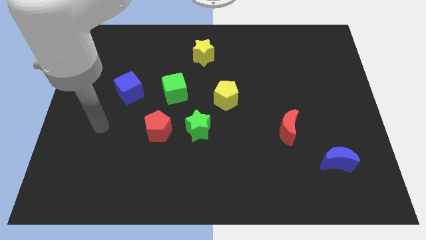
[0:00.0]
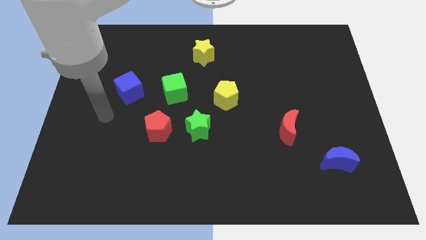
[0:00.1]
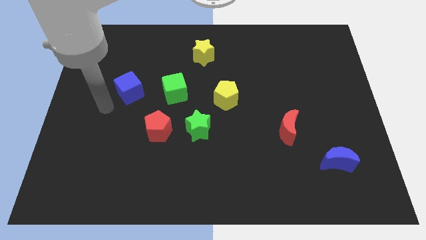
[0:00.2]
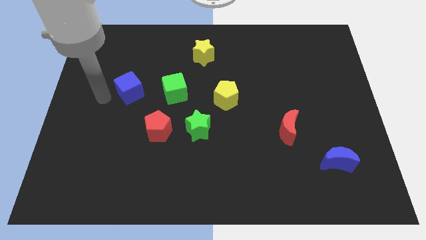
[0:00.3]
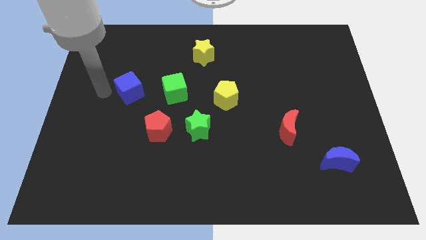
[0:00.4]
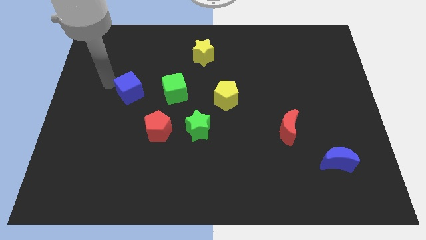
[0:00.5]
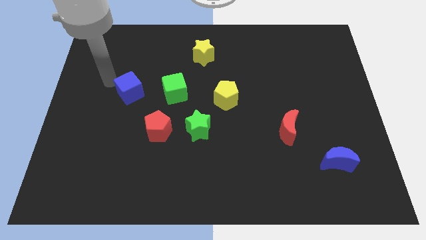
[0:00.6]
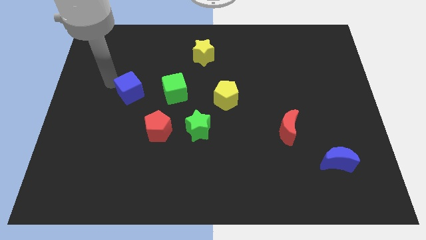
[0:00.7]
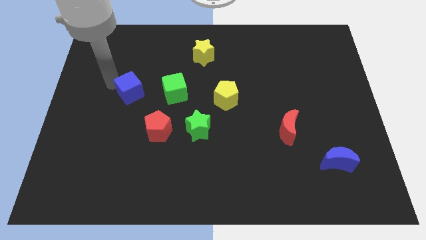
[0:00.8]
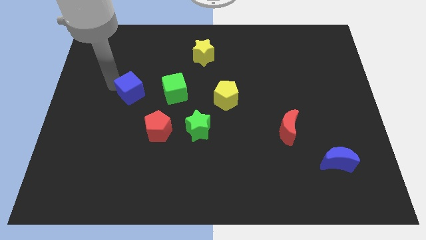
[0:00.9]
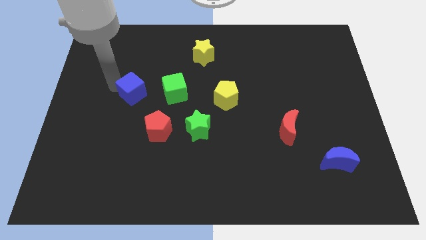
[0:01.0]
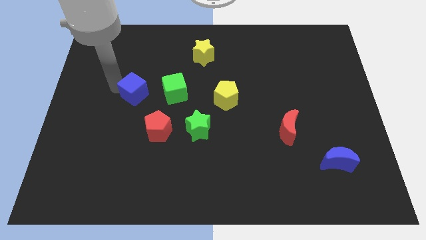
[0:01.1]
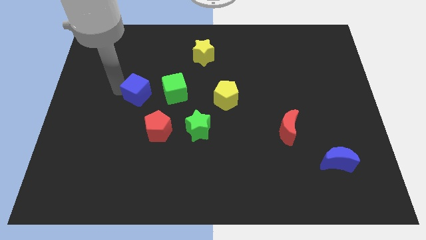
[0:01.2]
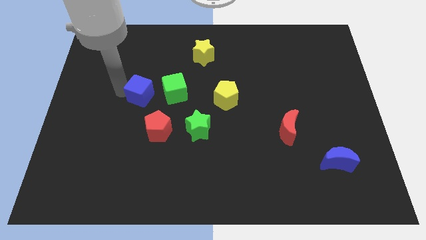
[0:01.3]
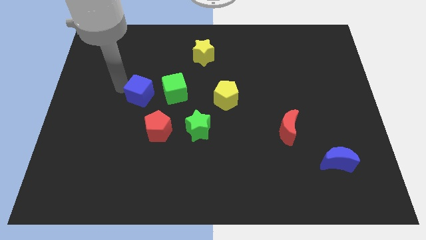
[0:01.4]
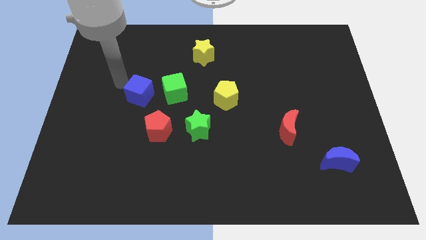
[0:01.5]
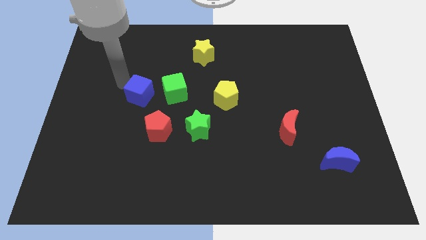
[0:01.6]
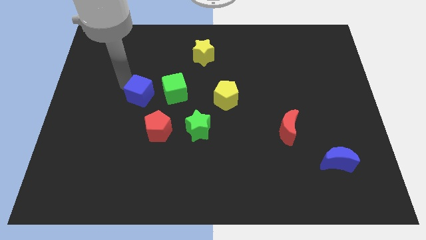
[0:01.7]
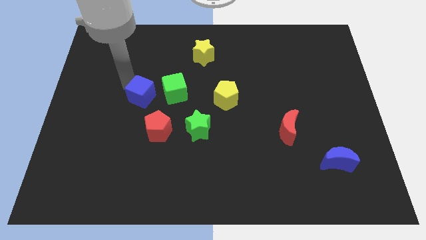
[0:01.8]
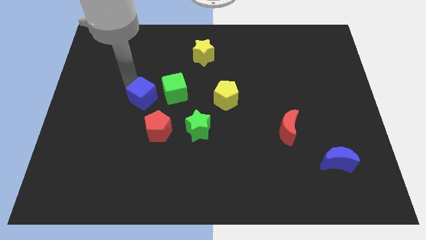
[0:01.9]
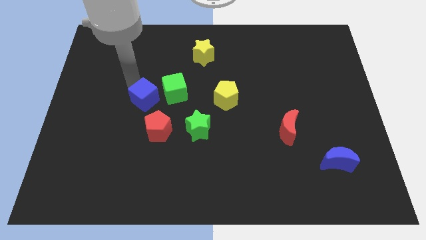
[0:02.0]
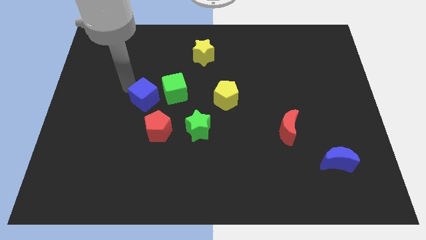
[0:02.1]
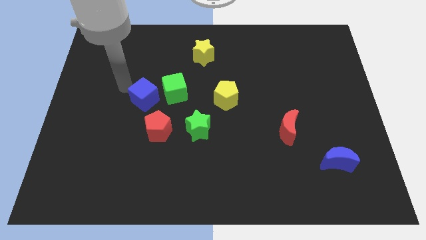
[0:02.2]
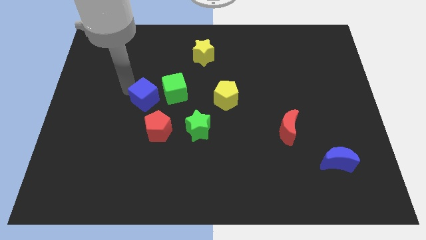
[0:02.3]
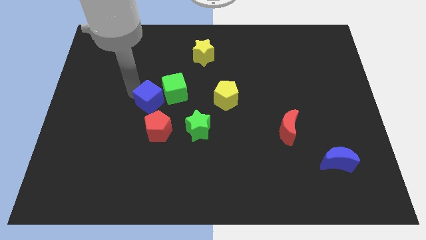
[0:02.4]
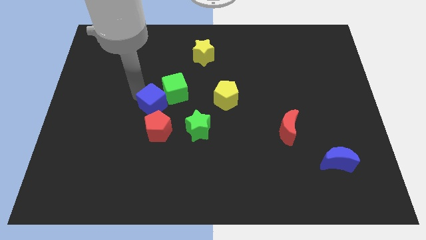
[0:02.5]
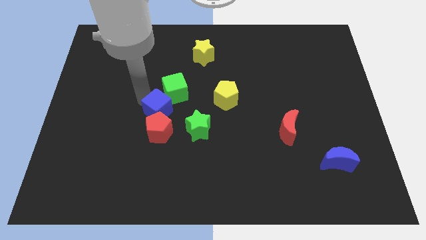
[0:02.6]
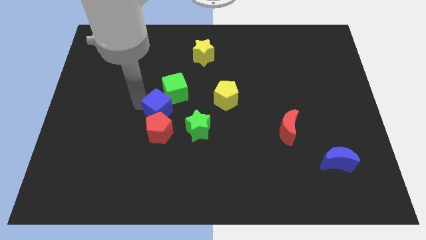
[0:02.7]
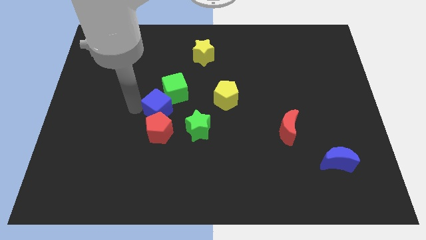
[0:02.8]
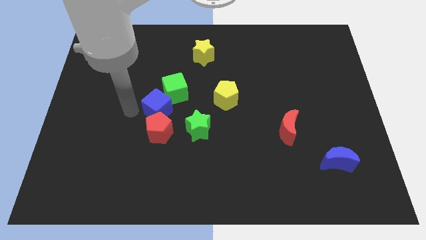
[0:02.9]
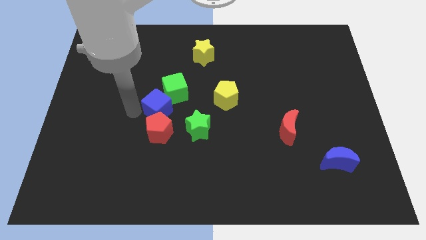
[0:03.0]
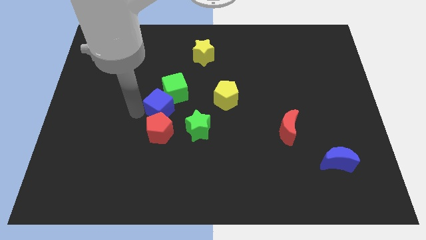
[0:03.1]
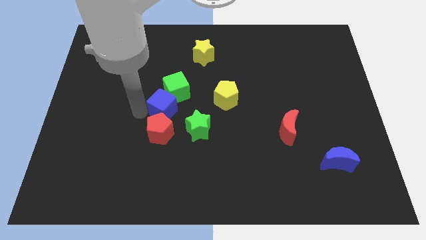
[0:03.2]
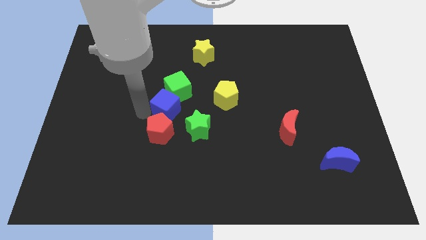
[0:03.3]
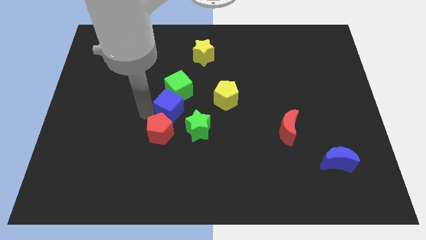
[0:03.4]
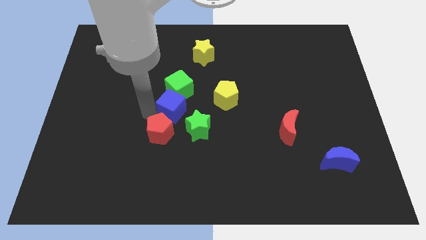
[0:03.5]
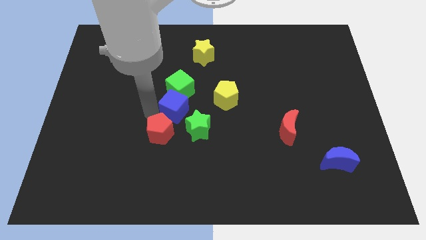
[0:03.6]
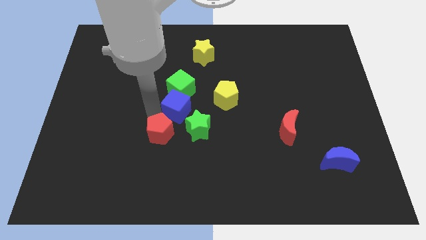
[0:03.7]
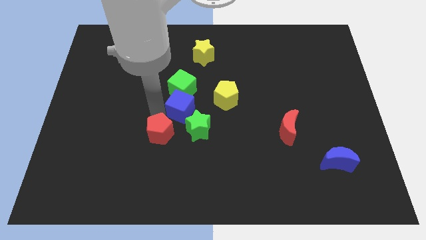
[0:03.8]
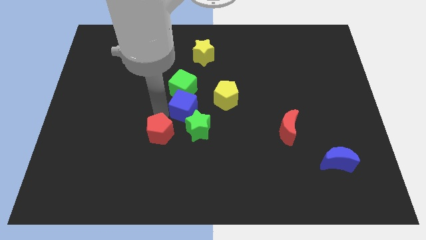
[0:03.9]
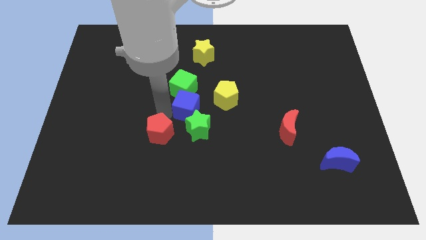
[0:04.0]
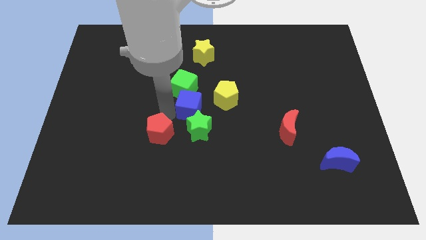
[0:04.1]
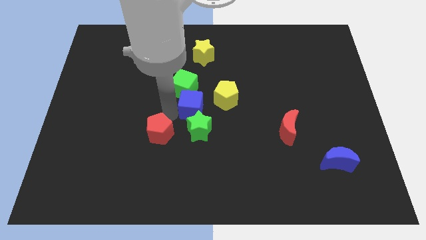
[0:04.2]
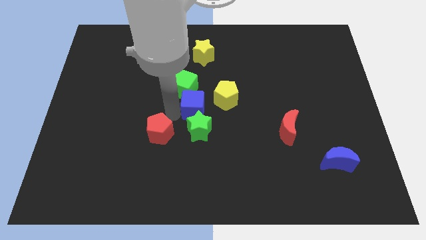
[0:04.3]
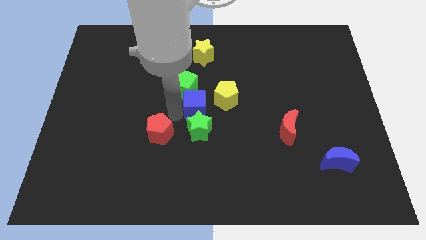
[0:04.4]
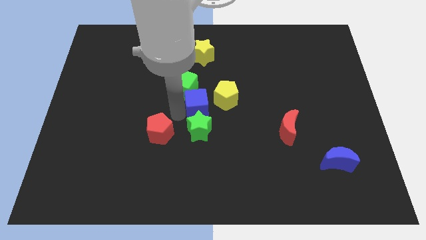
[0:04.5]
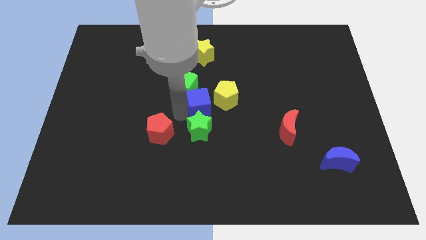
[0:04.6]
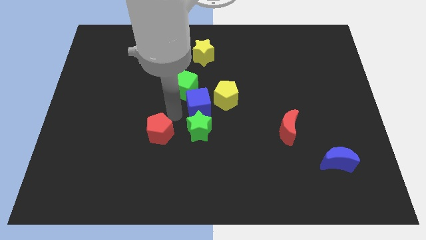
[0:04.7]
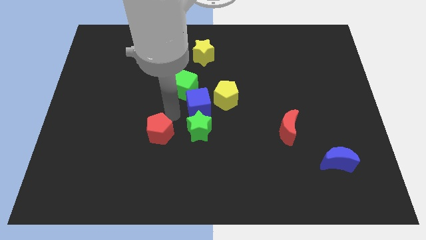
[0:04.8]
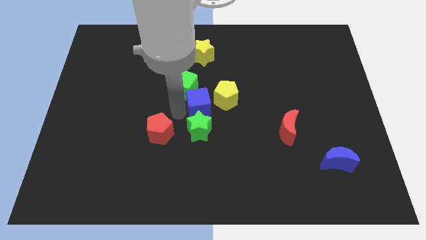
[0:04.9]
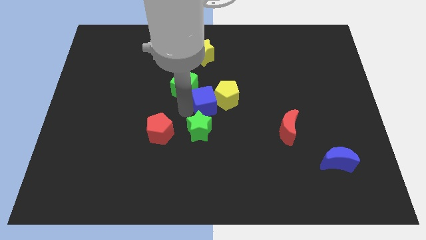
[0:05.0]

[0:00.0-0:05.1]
move the blue cube close to the yellow pentagon

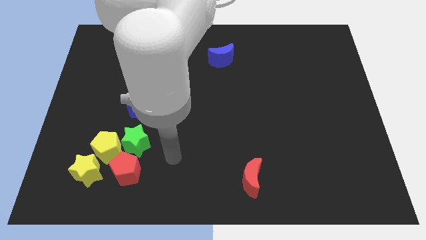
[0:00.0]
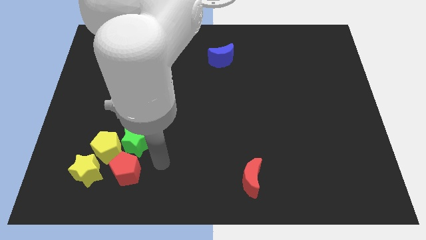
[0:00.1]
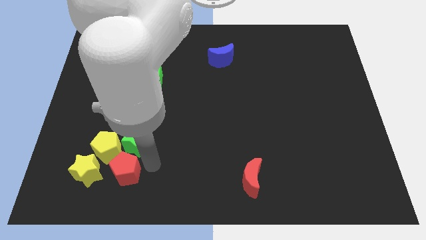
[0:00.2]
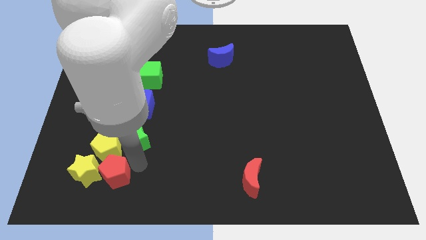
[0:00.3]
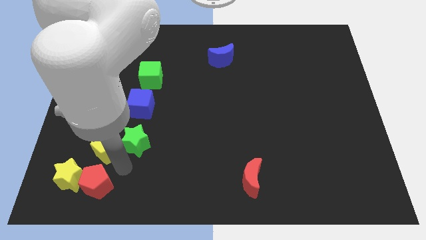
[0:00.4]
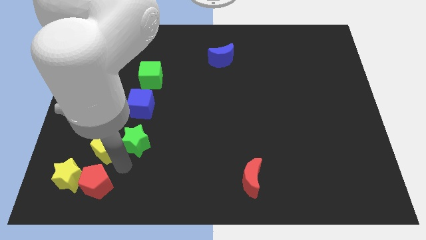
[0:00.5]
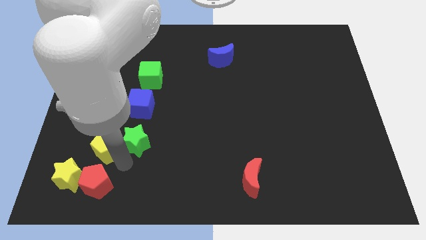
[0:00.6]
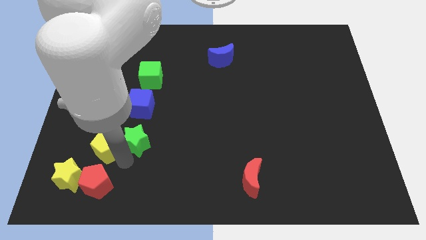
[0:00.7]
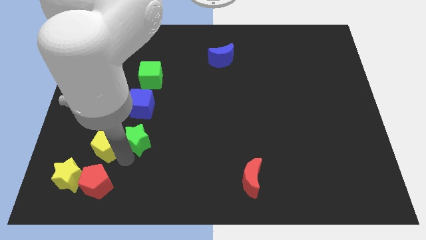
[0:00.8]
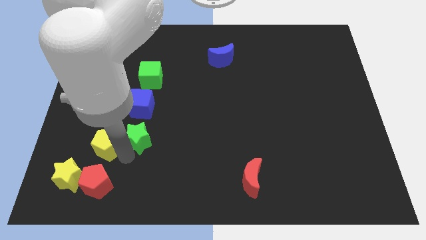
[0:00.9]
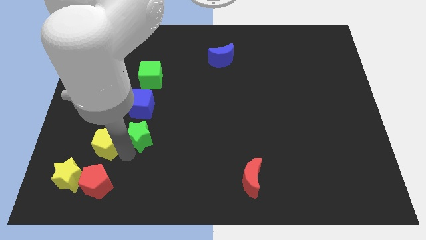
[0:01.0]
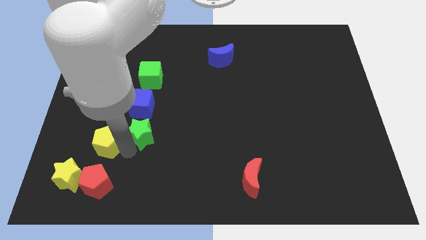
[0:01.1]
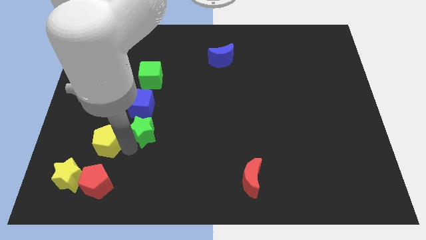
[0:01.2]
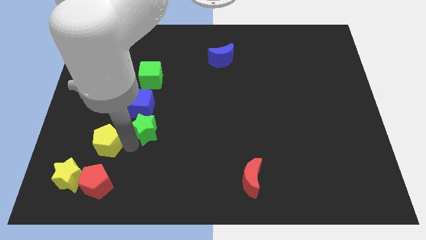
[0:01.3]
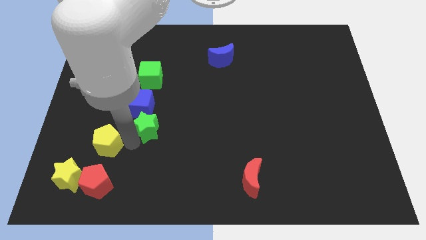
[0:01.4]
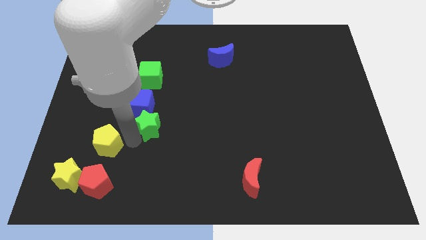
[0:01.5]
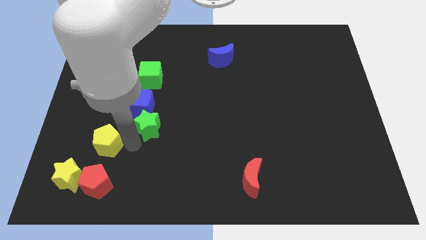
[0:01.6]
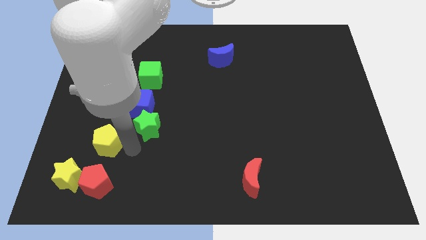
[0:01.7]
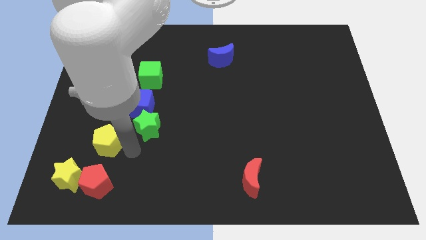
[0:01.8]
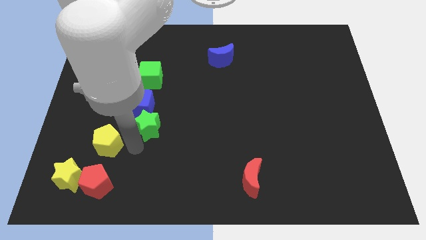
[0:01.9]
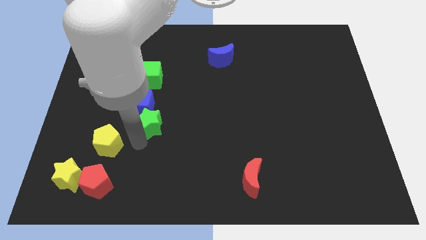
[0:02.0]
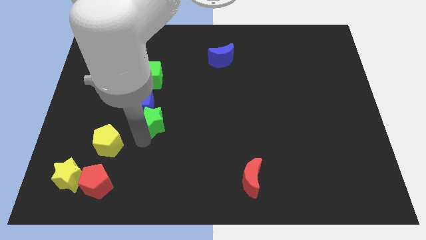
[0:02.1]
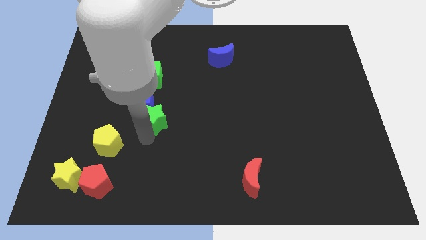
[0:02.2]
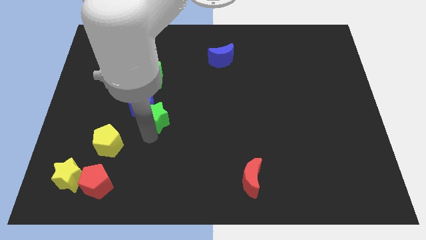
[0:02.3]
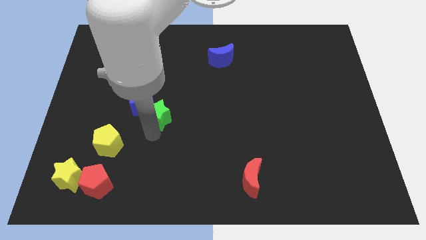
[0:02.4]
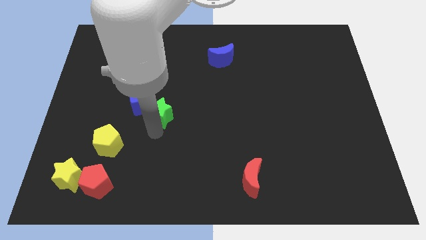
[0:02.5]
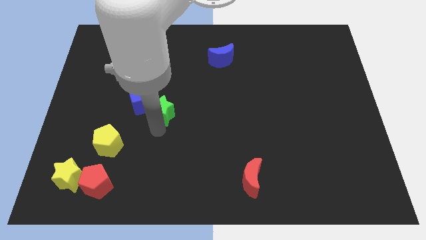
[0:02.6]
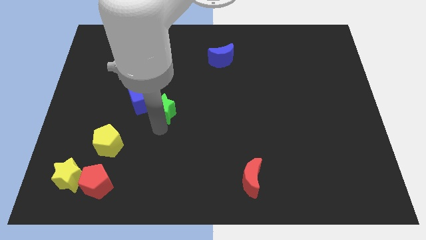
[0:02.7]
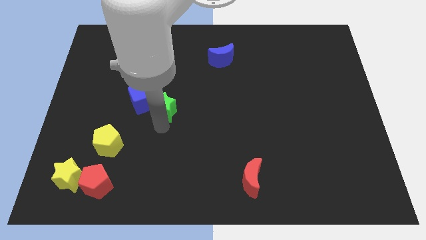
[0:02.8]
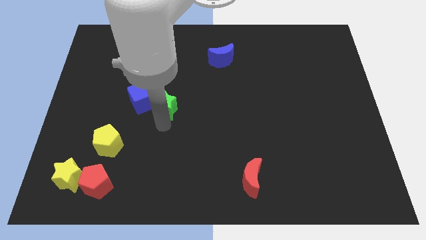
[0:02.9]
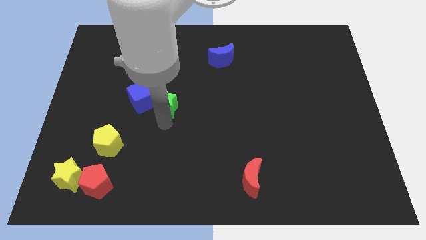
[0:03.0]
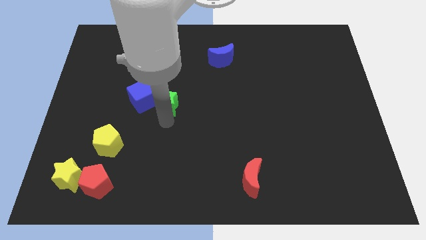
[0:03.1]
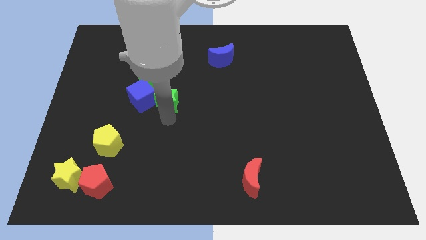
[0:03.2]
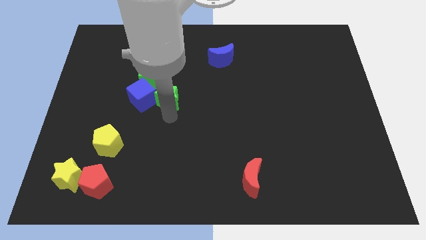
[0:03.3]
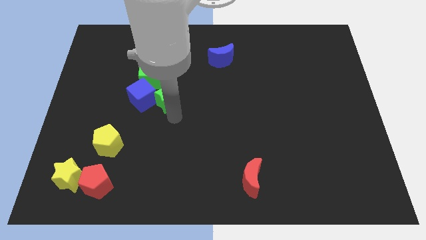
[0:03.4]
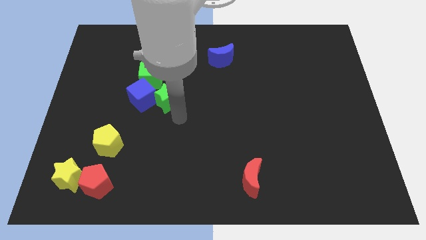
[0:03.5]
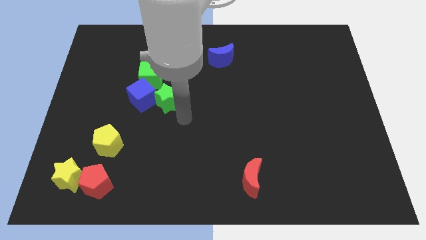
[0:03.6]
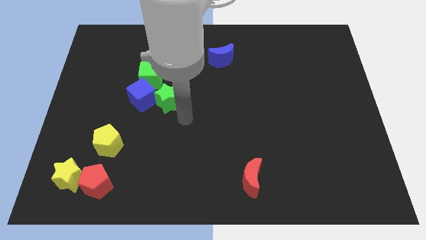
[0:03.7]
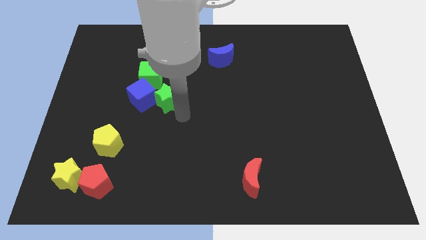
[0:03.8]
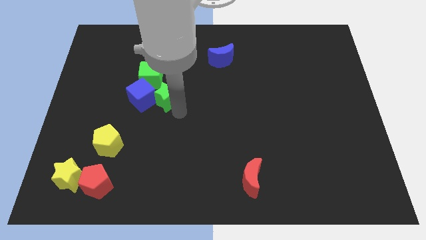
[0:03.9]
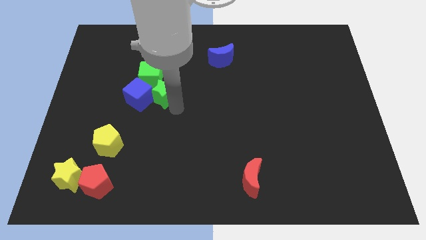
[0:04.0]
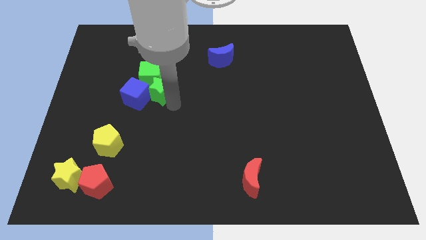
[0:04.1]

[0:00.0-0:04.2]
push the green star towards the green cube
